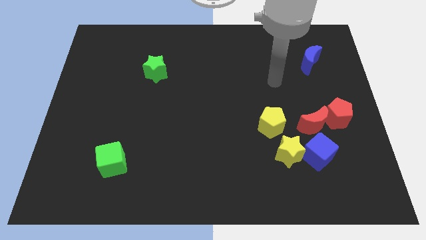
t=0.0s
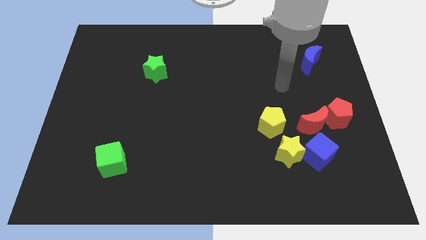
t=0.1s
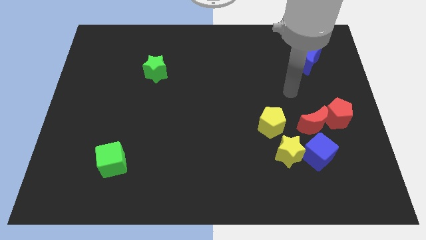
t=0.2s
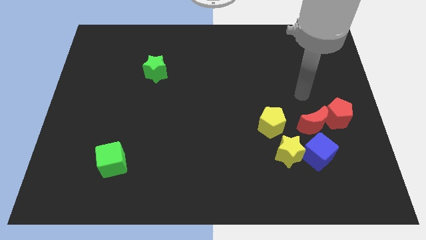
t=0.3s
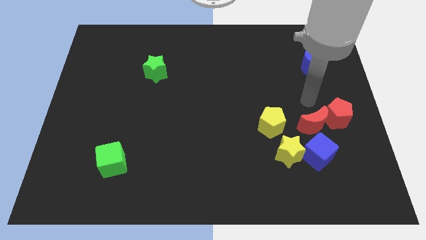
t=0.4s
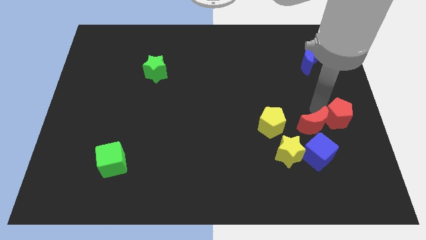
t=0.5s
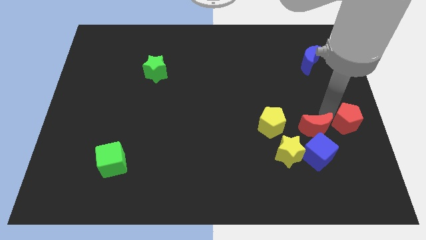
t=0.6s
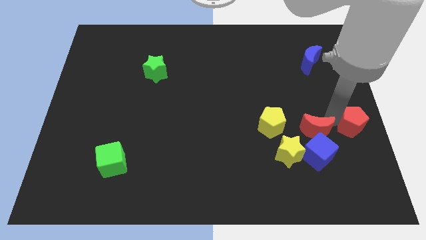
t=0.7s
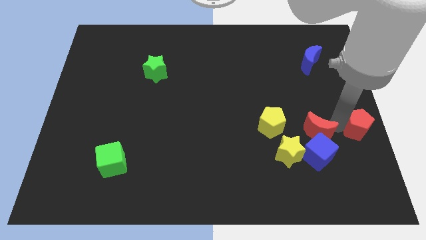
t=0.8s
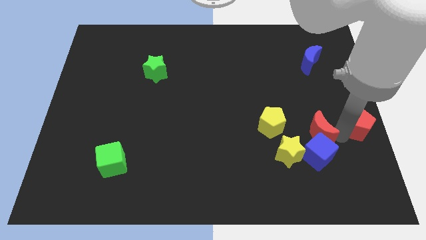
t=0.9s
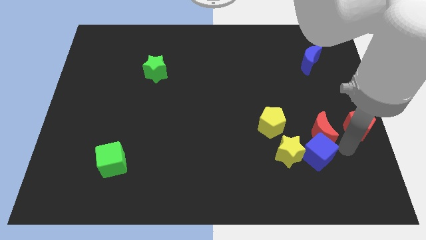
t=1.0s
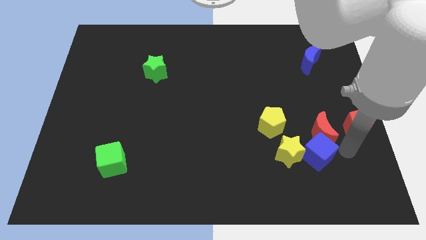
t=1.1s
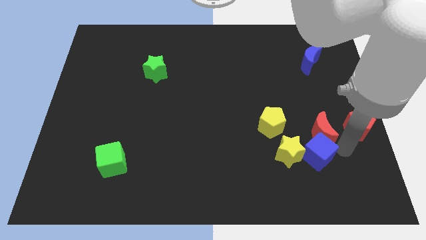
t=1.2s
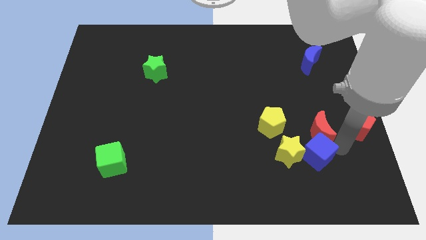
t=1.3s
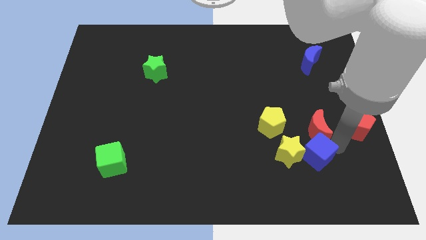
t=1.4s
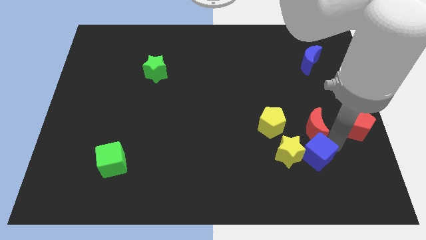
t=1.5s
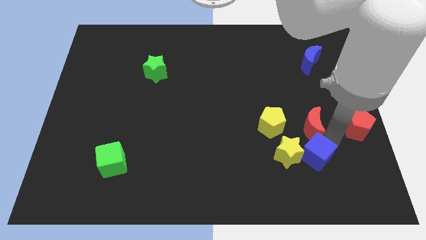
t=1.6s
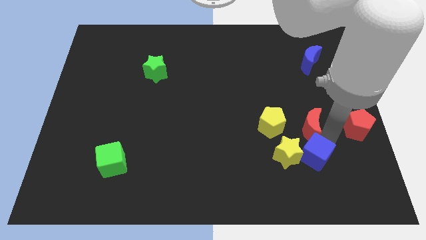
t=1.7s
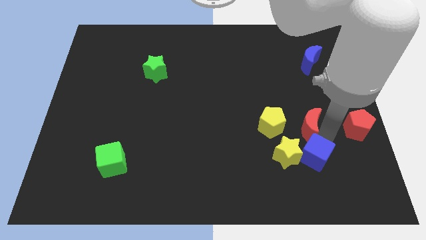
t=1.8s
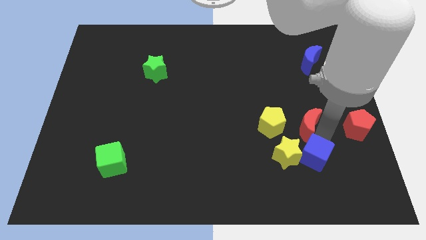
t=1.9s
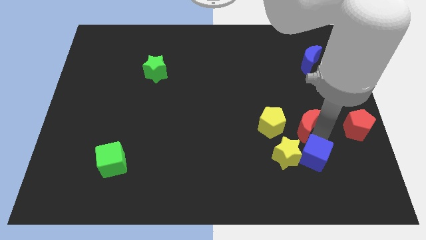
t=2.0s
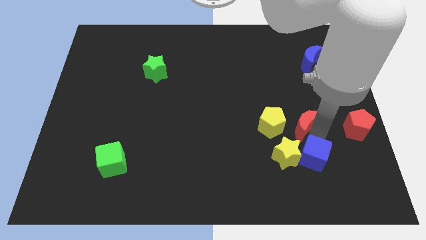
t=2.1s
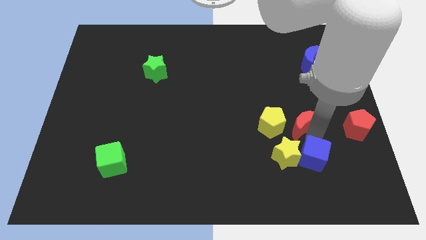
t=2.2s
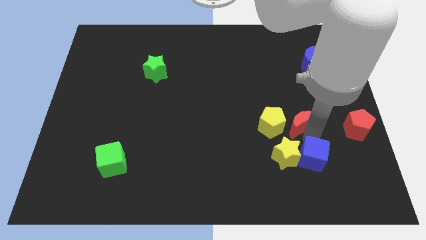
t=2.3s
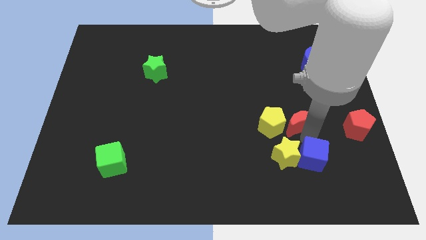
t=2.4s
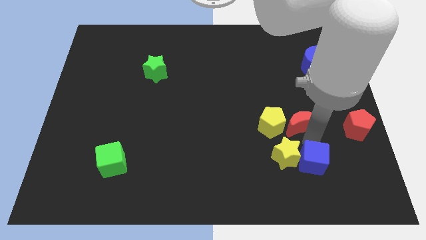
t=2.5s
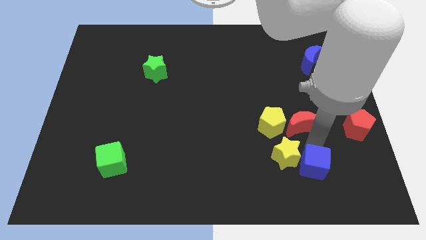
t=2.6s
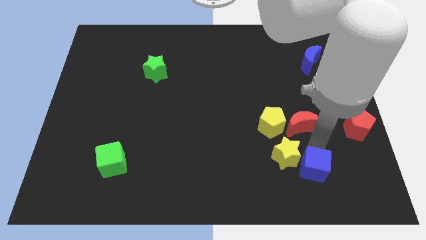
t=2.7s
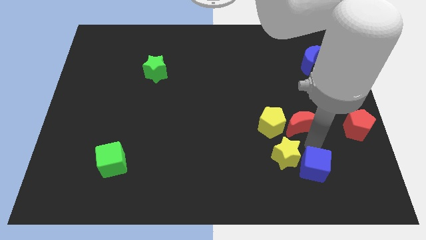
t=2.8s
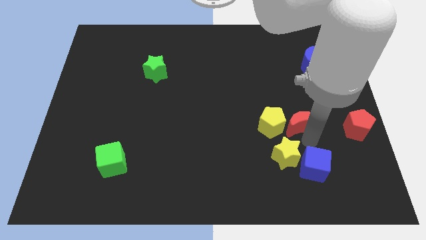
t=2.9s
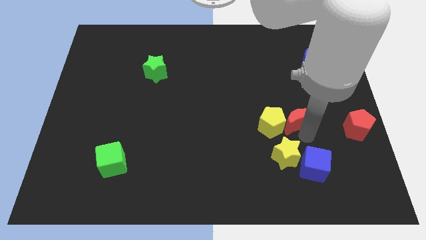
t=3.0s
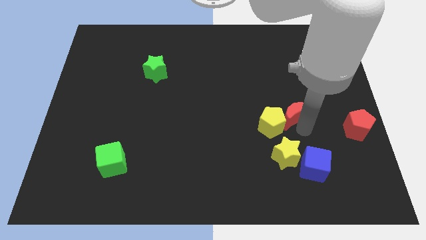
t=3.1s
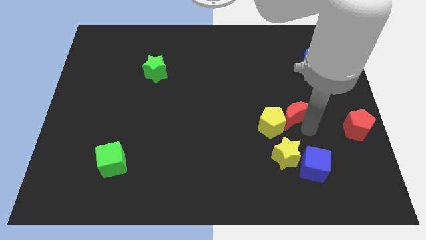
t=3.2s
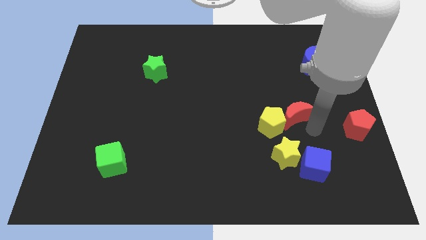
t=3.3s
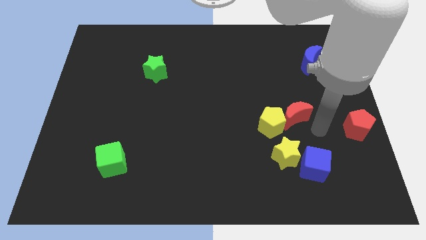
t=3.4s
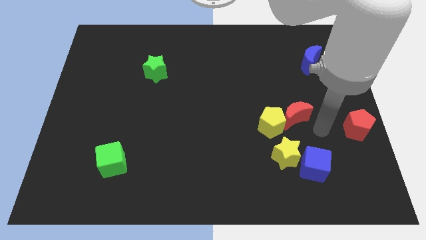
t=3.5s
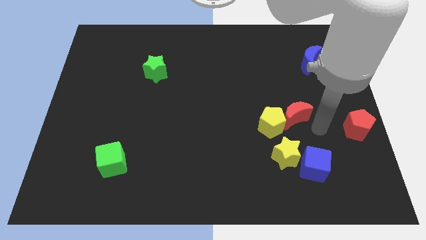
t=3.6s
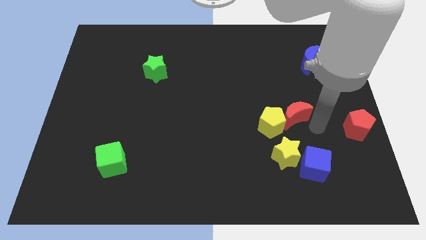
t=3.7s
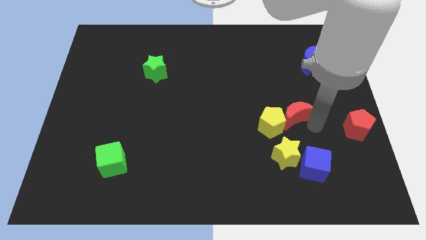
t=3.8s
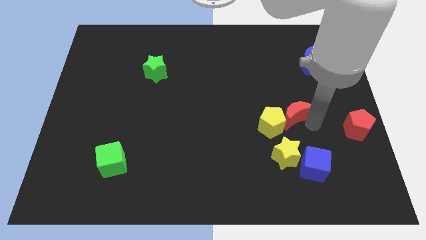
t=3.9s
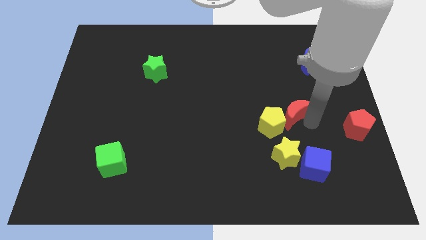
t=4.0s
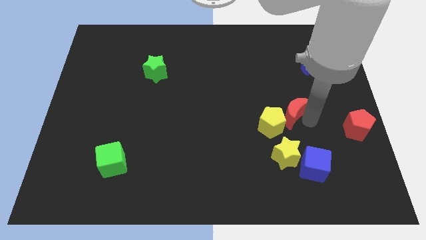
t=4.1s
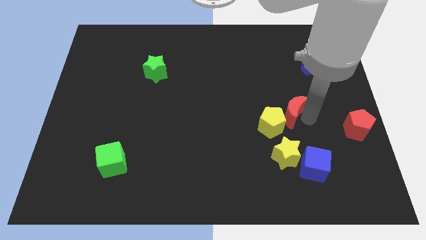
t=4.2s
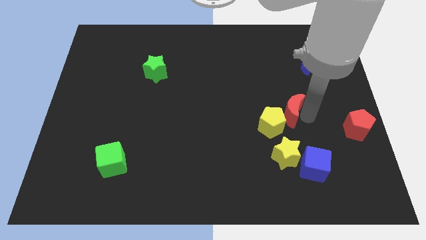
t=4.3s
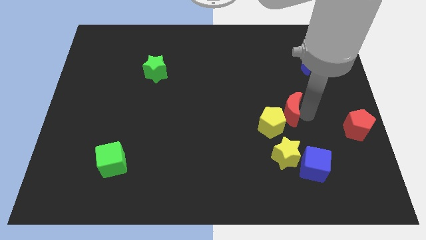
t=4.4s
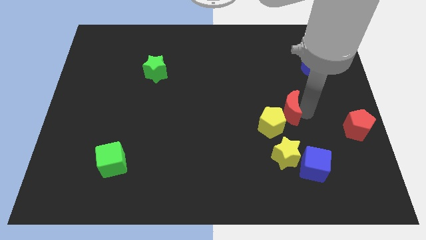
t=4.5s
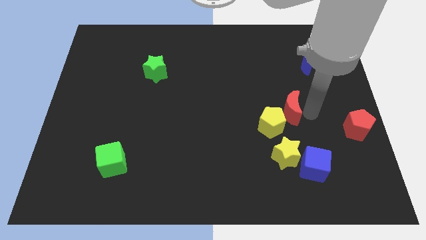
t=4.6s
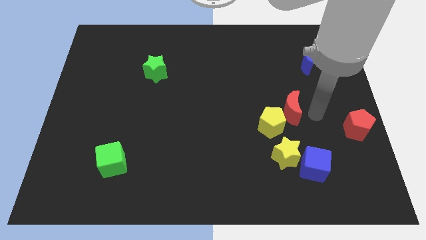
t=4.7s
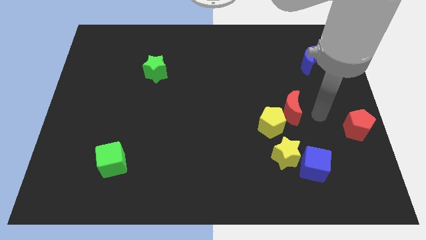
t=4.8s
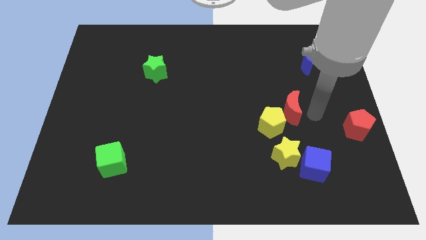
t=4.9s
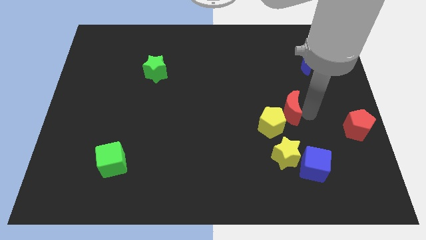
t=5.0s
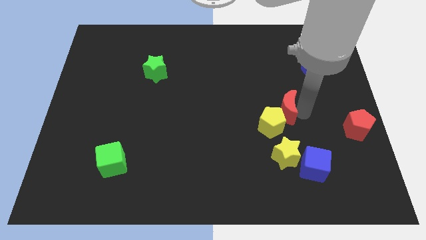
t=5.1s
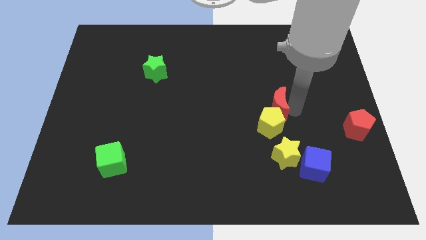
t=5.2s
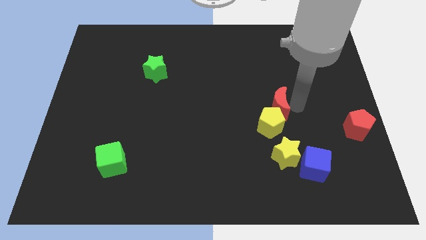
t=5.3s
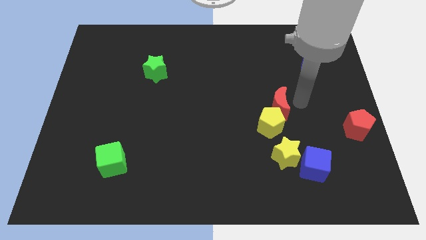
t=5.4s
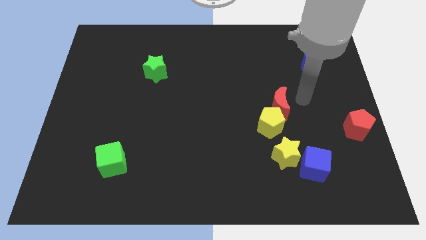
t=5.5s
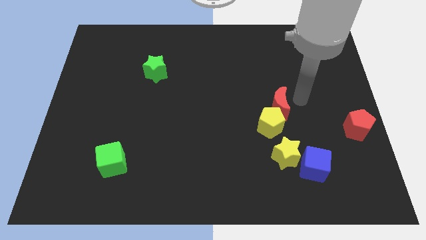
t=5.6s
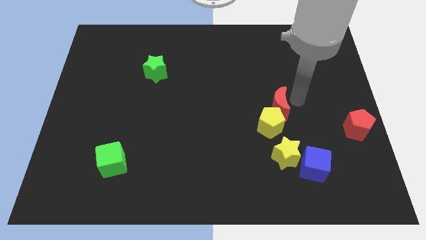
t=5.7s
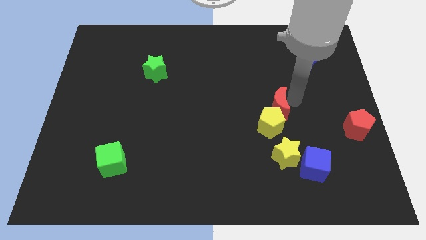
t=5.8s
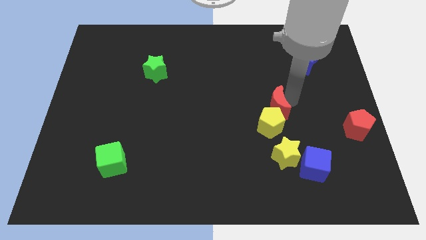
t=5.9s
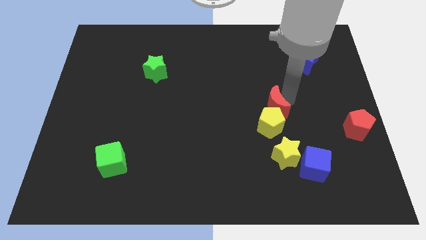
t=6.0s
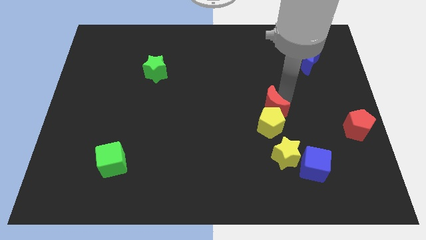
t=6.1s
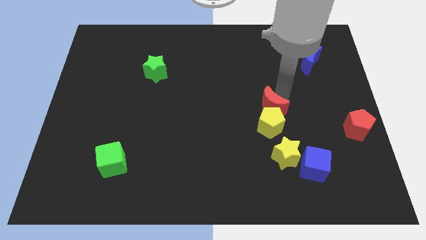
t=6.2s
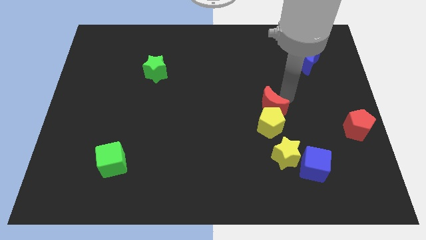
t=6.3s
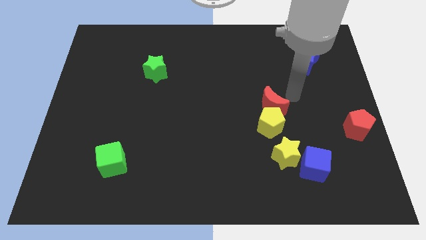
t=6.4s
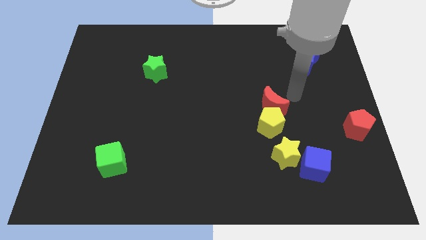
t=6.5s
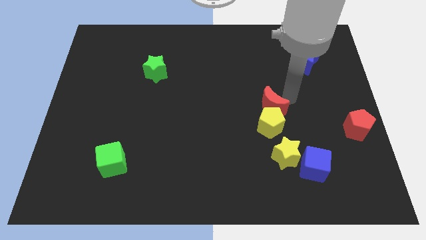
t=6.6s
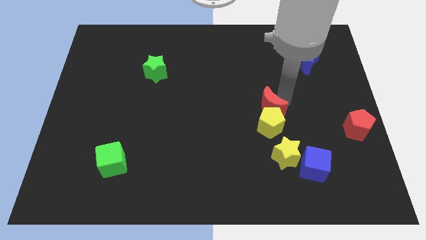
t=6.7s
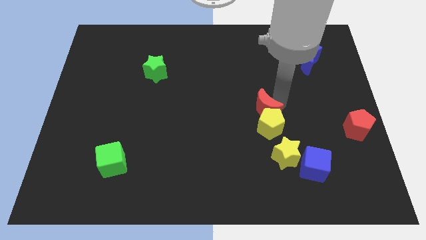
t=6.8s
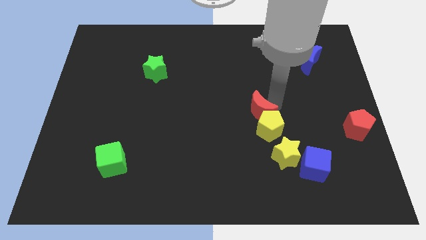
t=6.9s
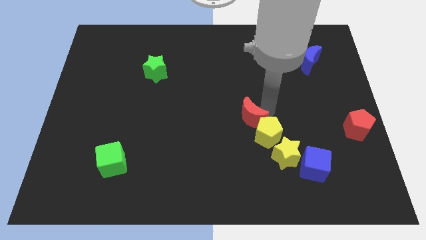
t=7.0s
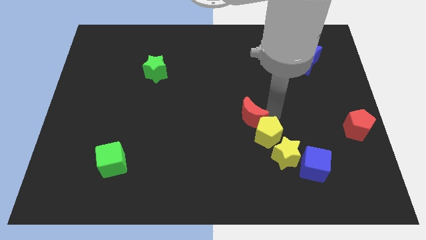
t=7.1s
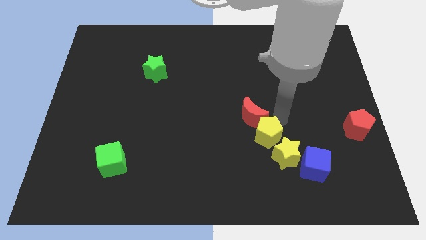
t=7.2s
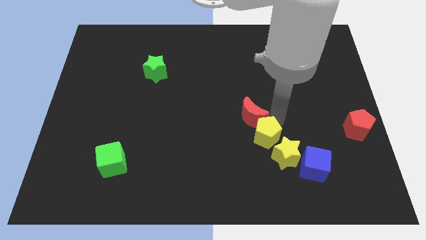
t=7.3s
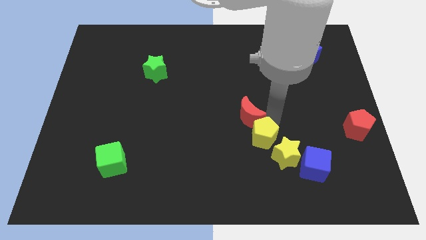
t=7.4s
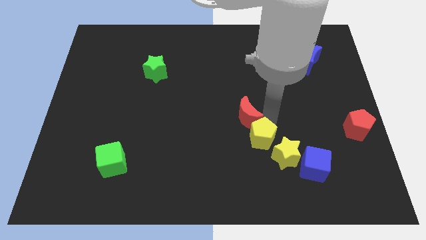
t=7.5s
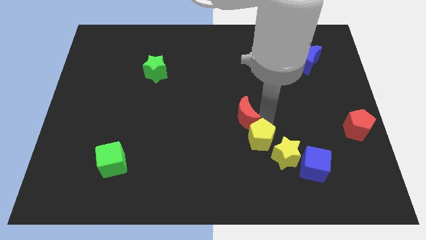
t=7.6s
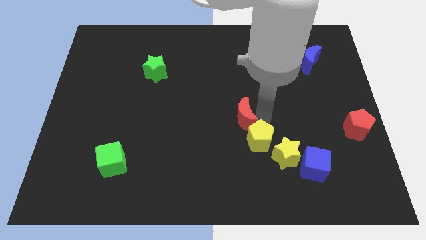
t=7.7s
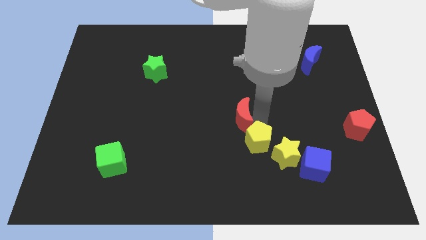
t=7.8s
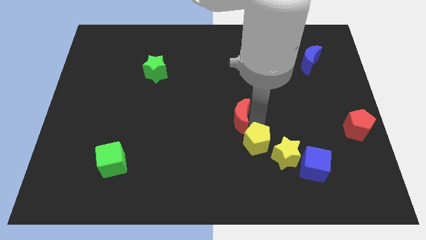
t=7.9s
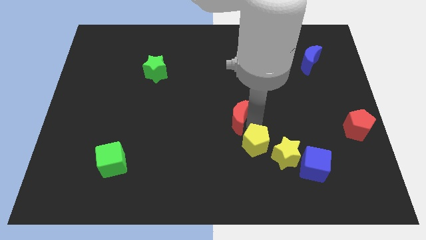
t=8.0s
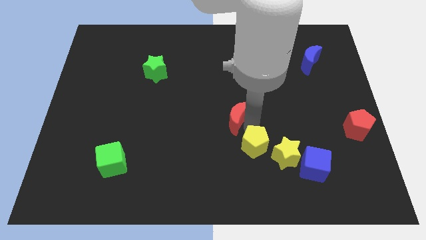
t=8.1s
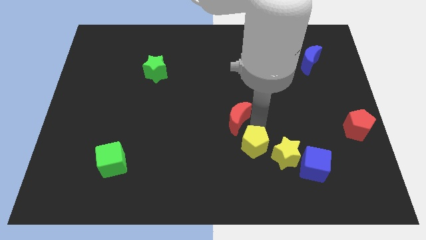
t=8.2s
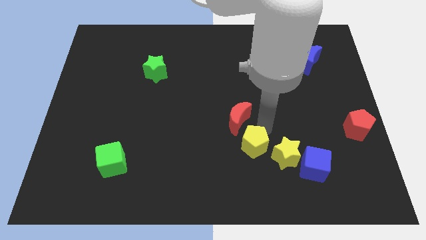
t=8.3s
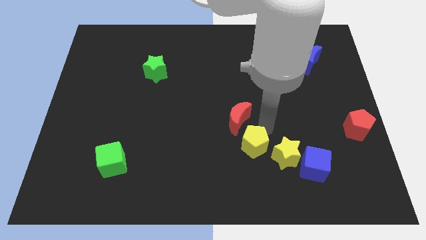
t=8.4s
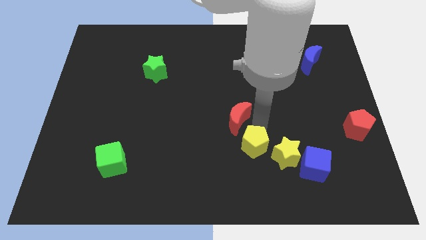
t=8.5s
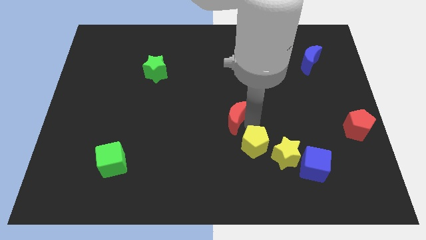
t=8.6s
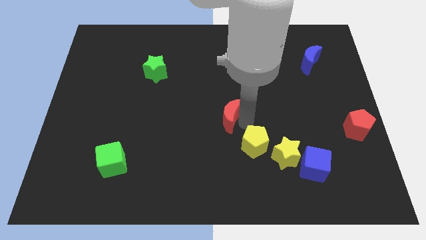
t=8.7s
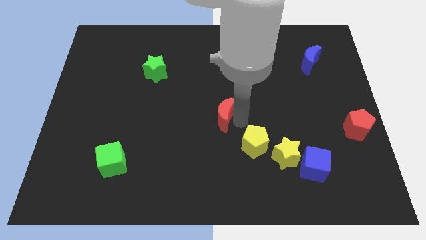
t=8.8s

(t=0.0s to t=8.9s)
move the red moon to the left
